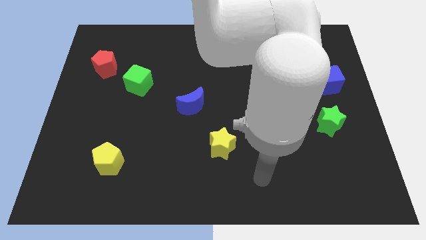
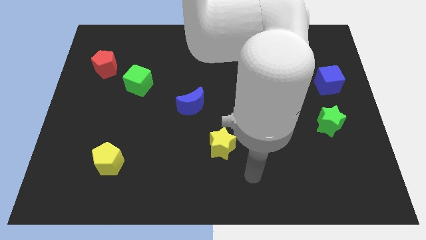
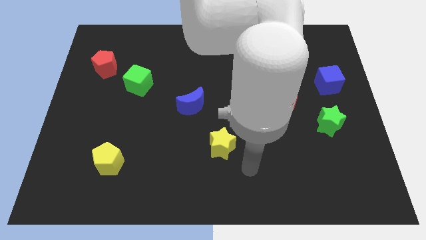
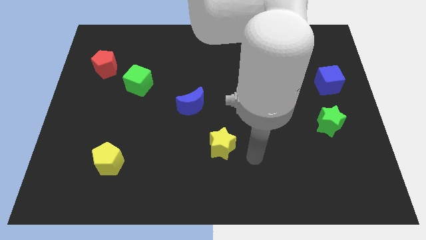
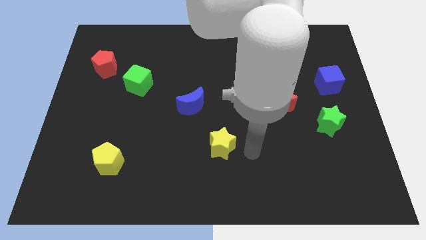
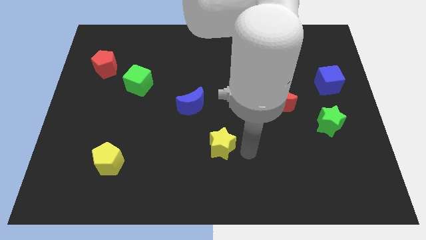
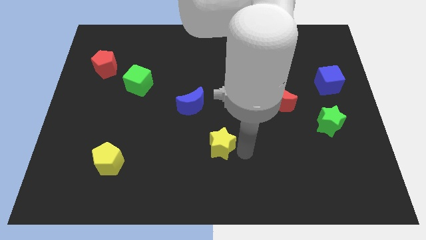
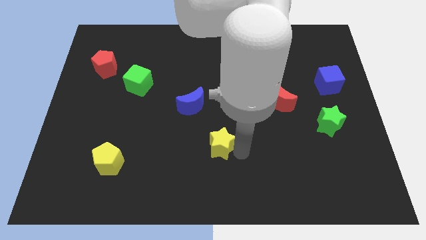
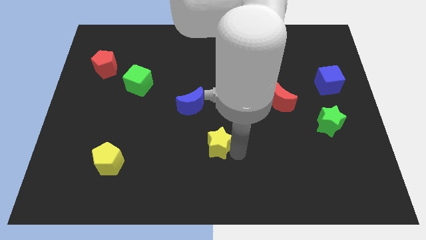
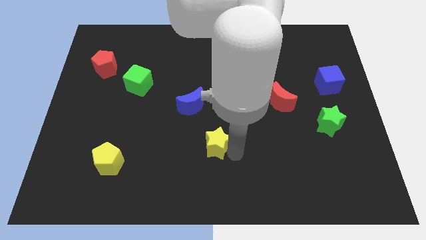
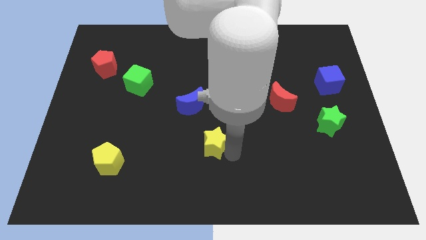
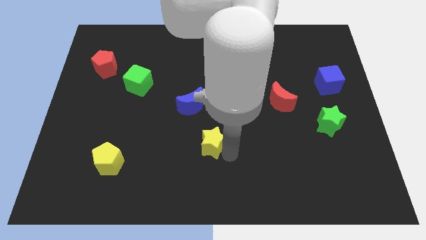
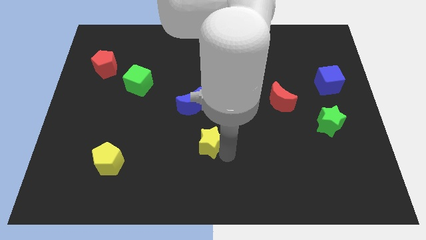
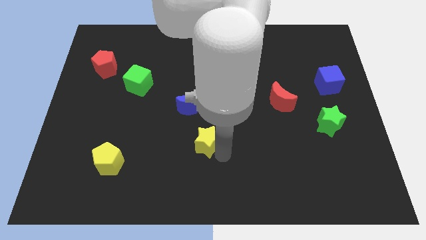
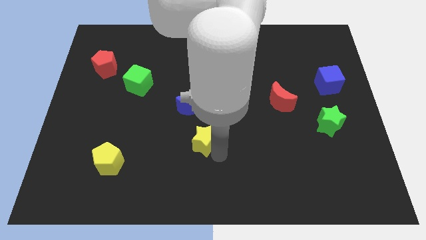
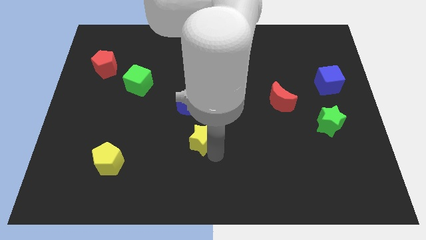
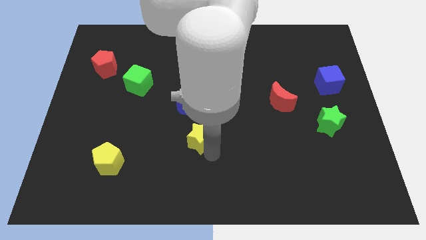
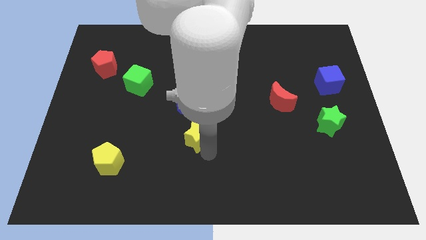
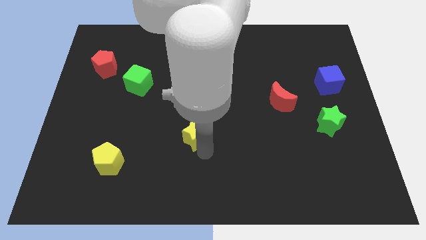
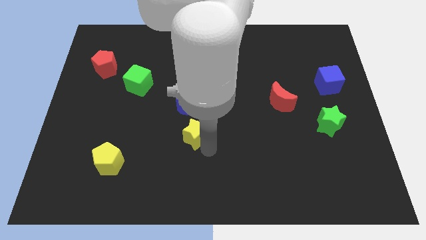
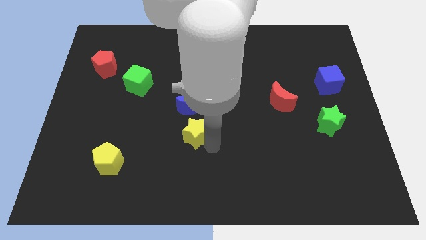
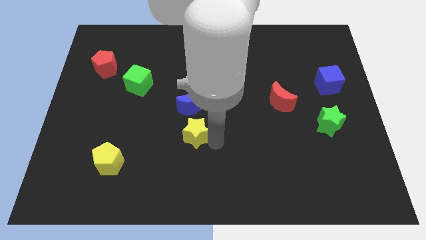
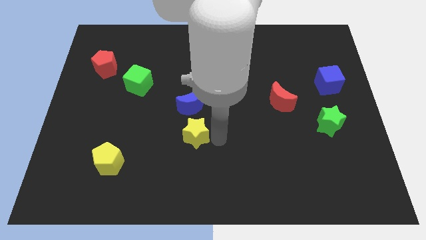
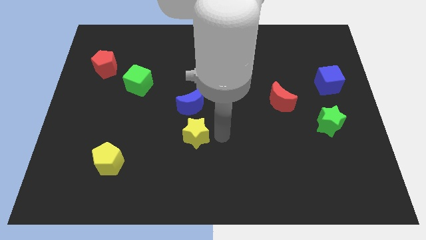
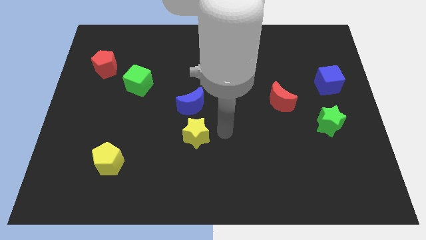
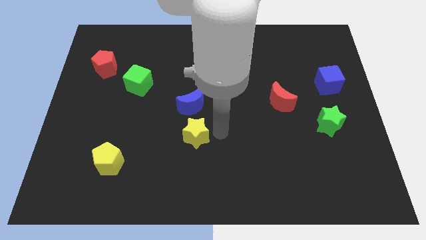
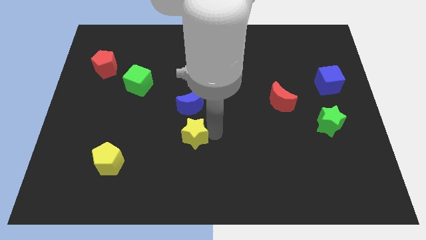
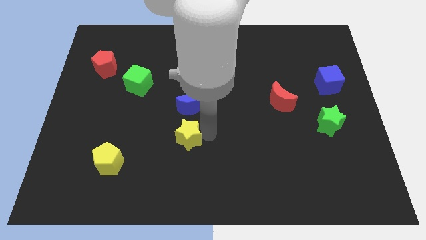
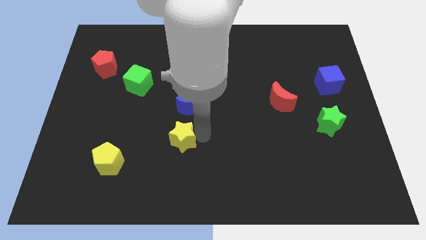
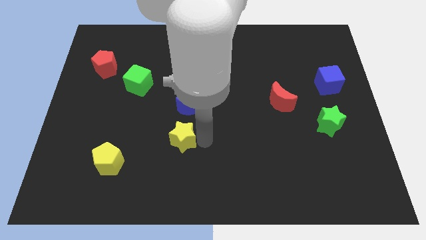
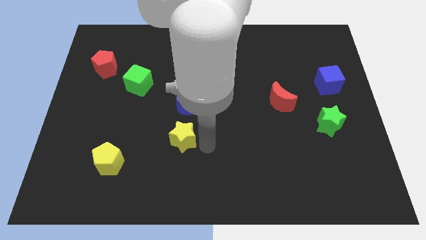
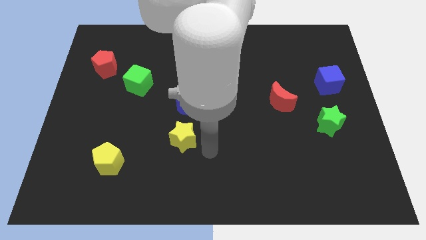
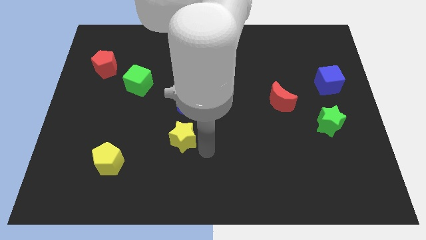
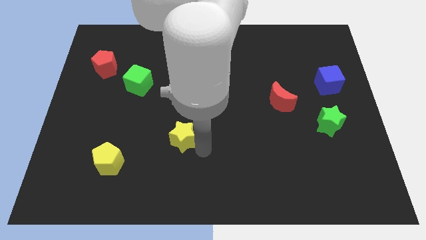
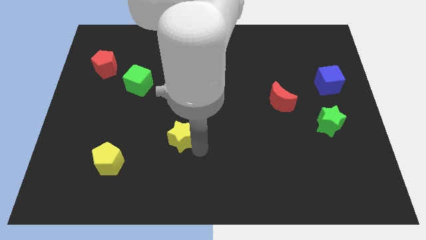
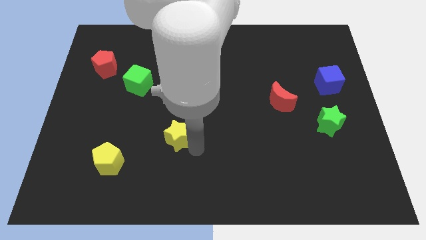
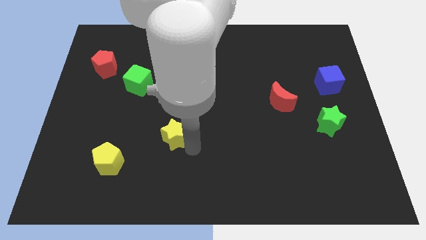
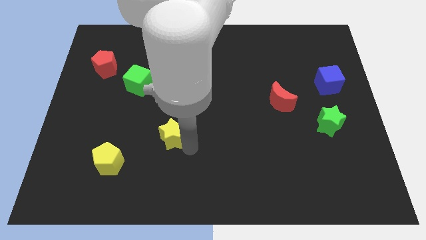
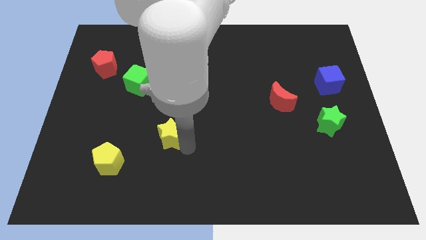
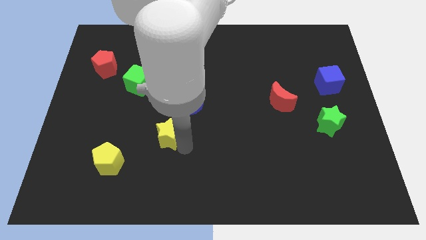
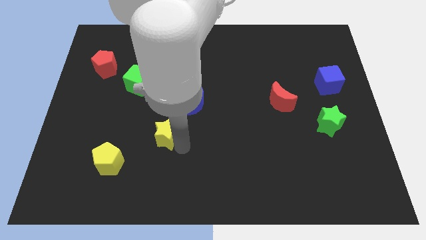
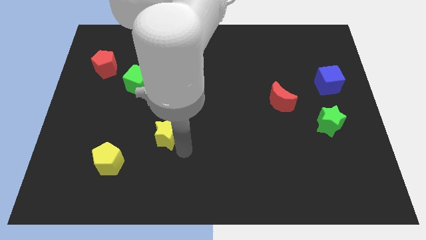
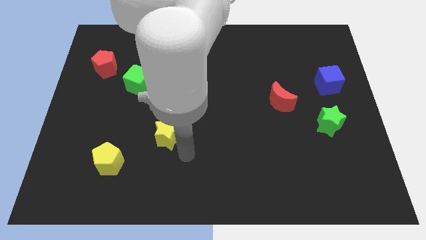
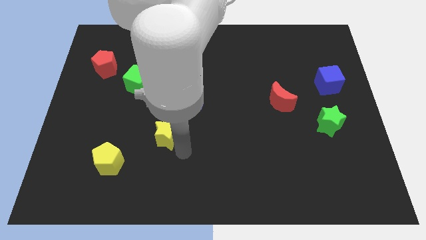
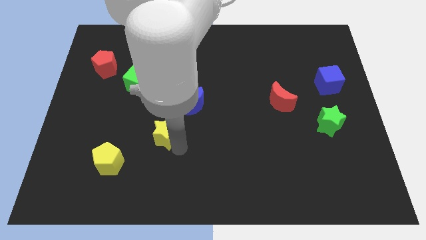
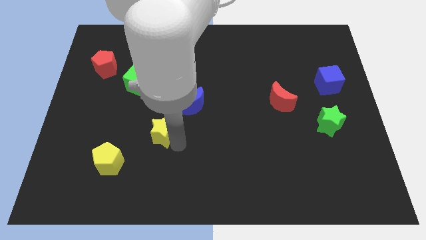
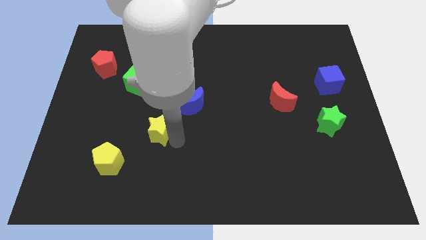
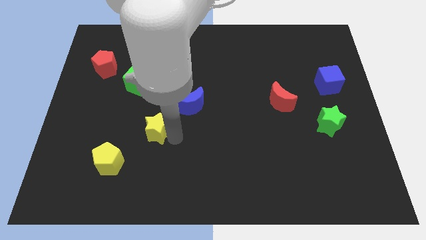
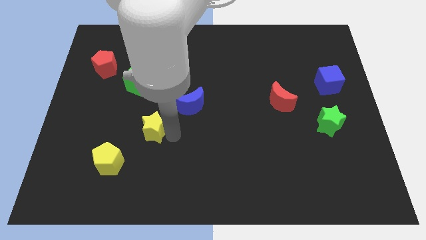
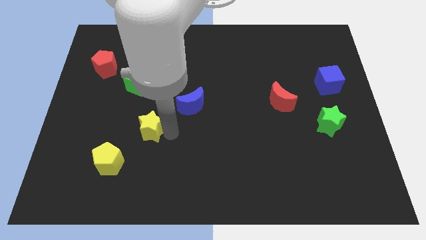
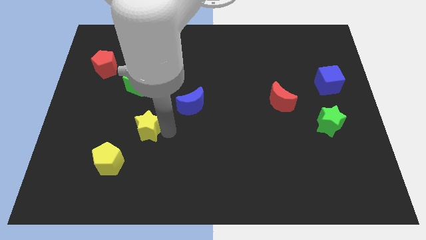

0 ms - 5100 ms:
push the yellow star below the green cube

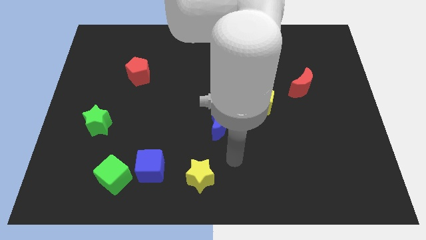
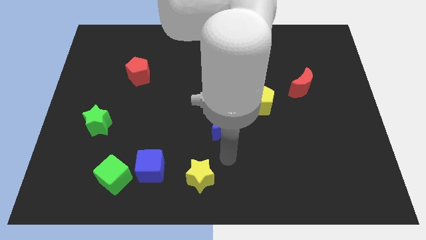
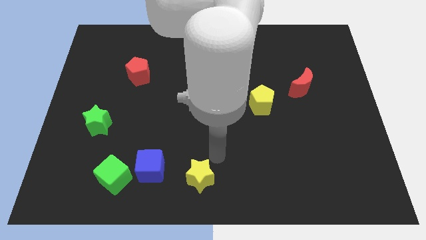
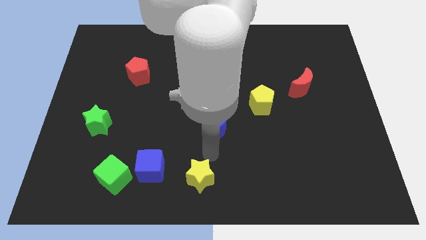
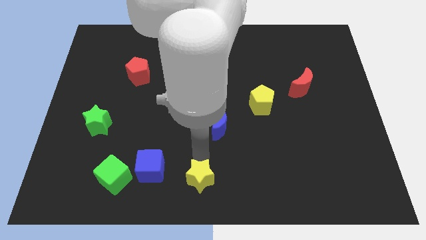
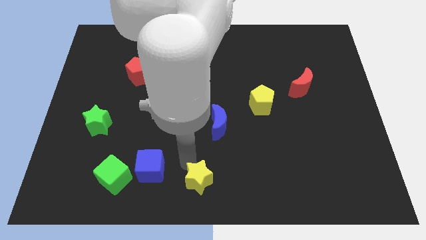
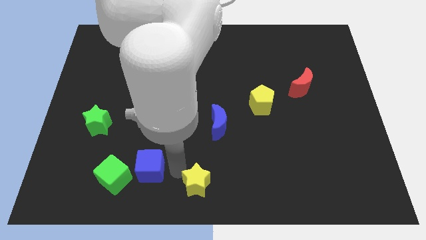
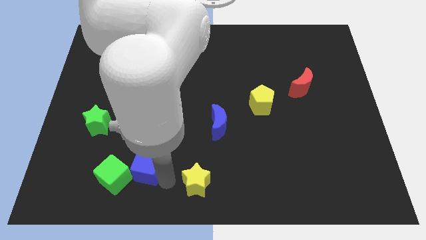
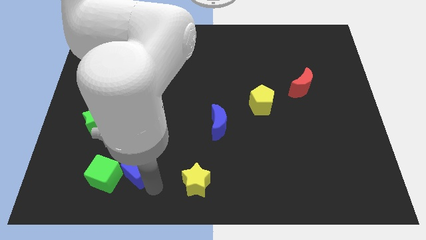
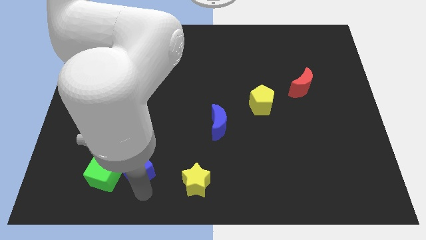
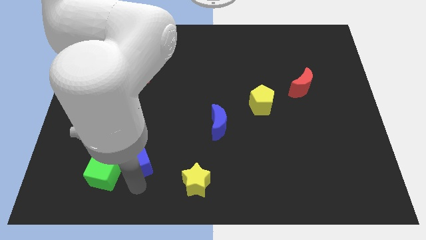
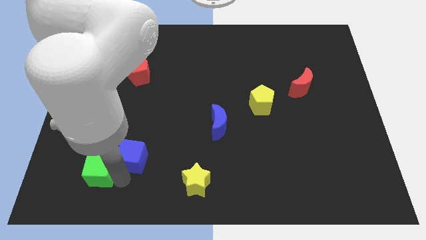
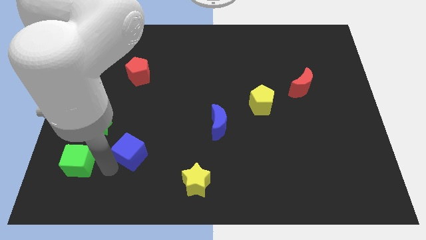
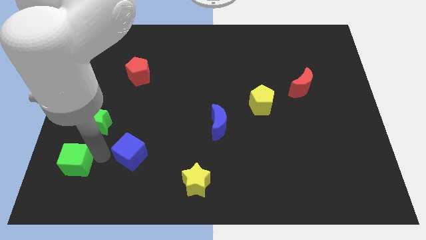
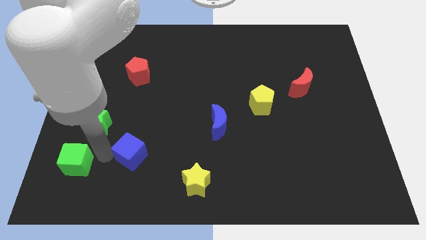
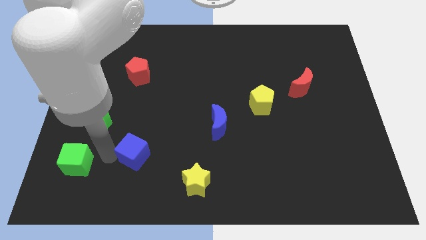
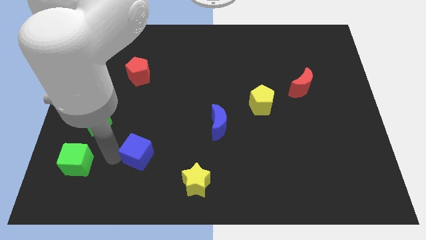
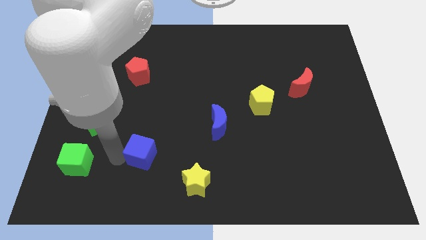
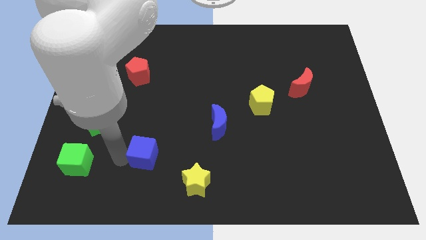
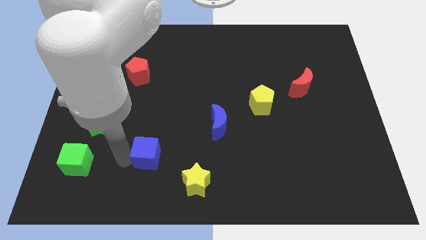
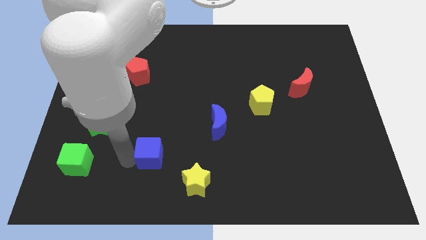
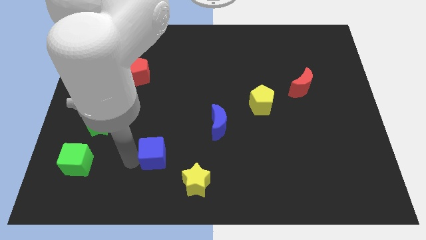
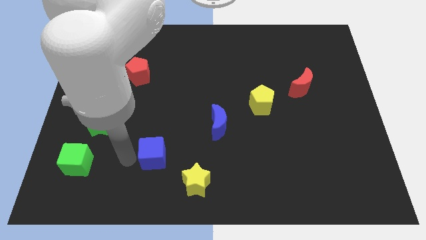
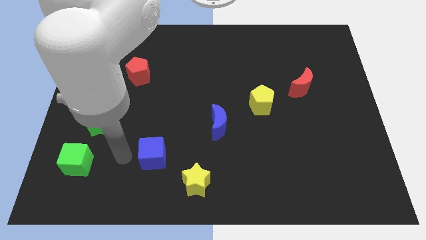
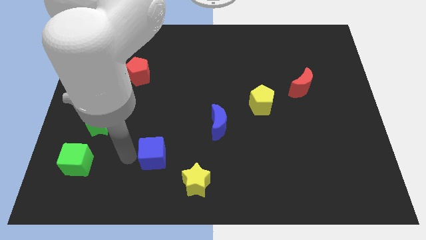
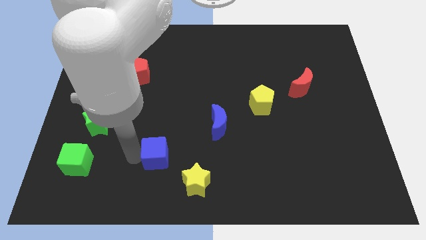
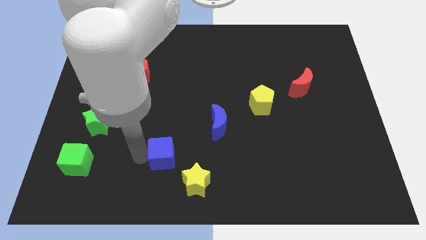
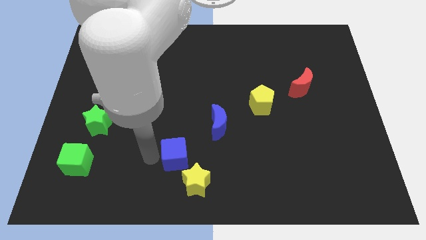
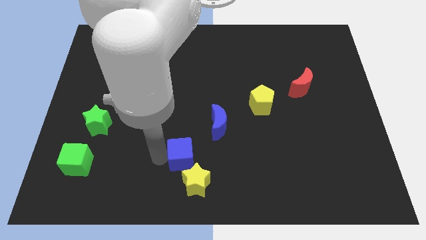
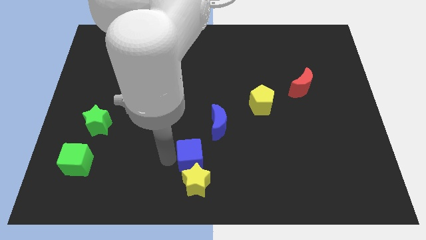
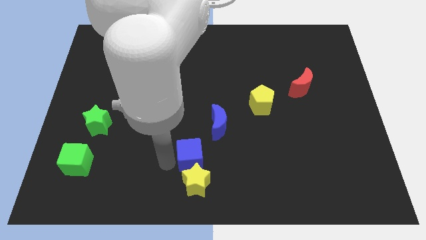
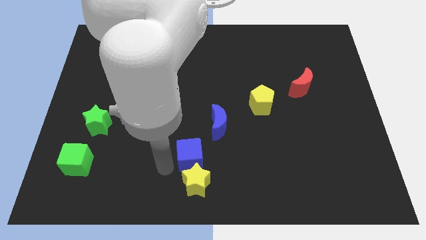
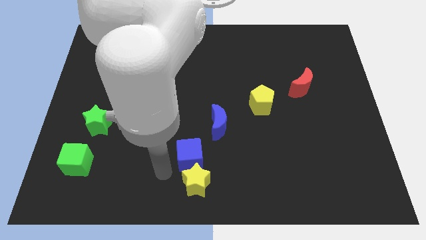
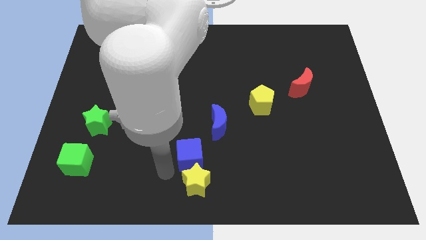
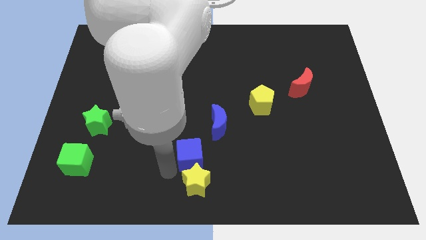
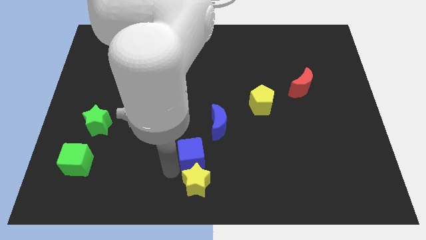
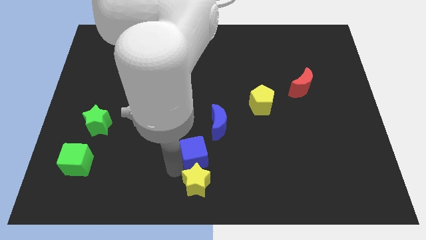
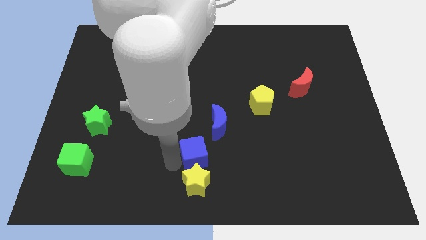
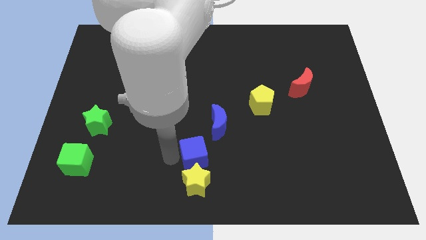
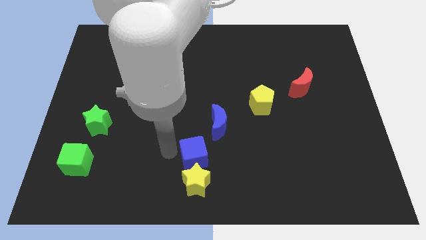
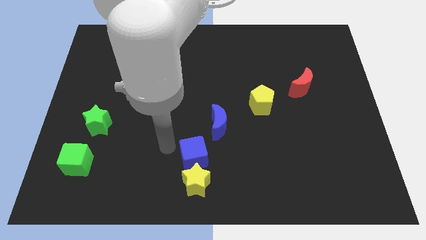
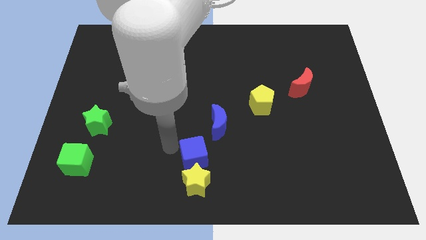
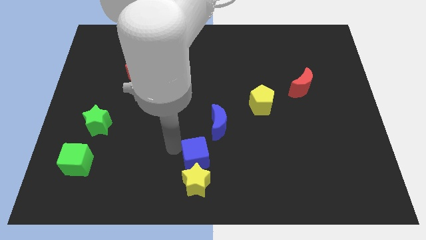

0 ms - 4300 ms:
slide the blue cube to the bottom of the blue moon
